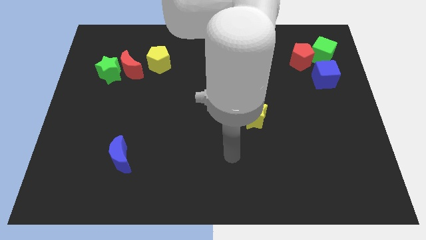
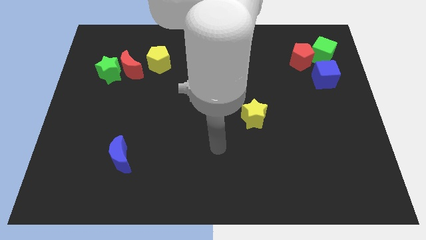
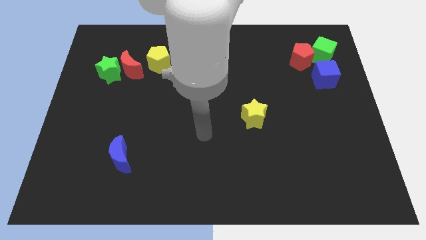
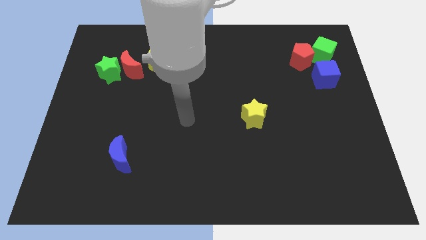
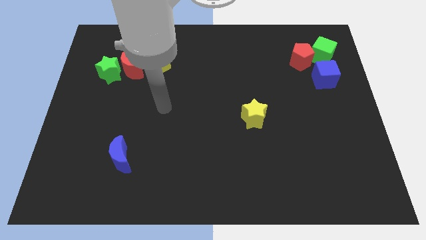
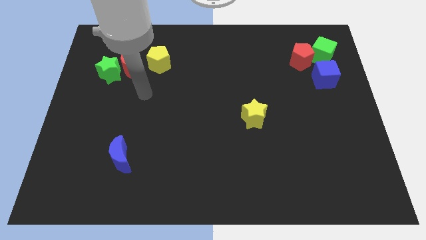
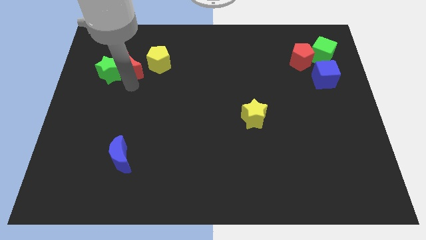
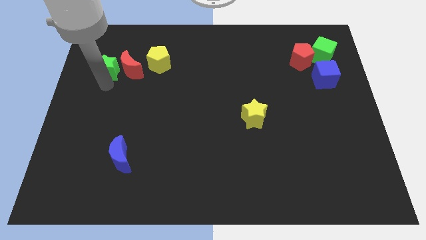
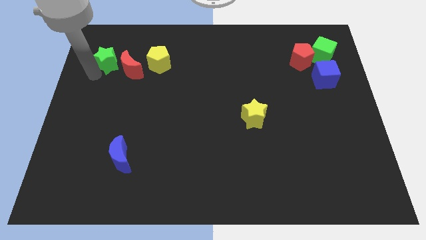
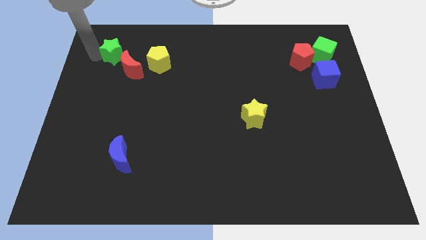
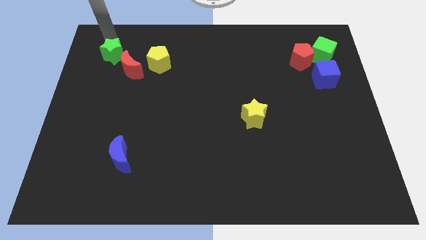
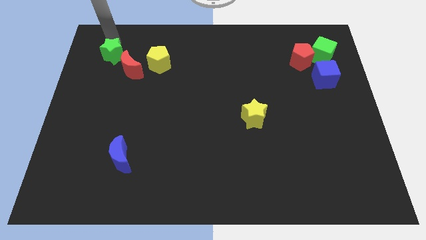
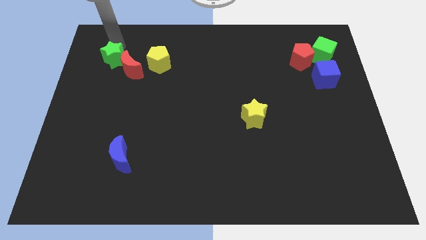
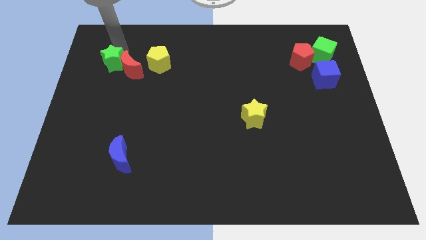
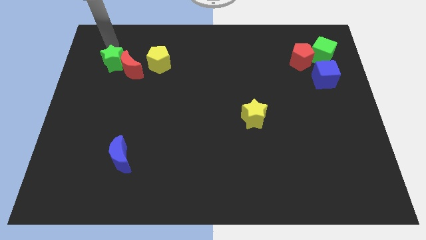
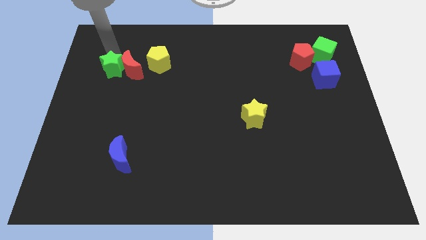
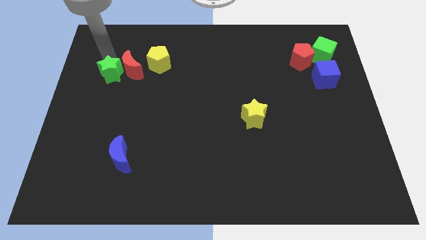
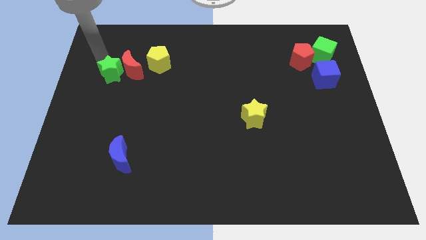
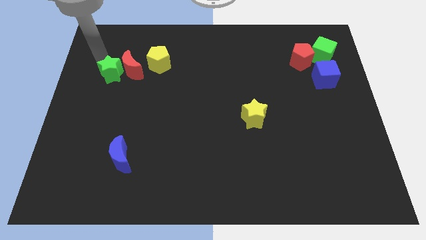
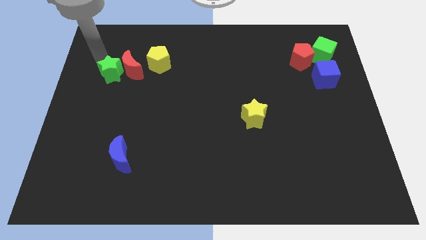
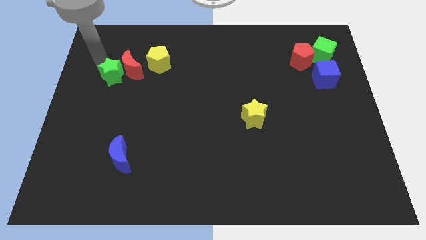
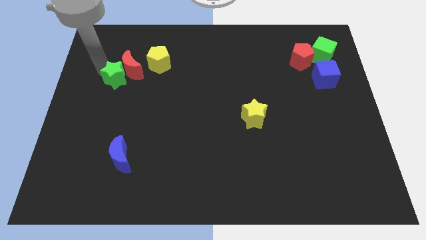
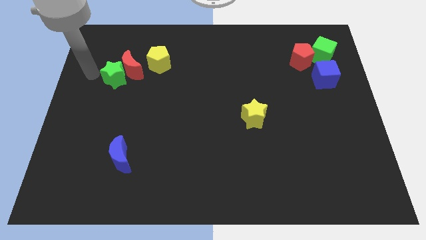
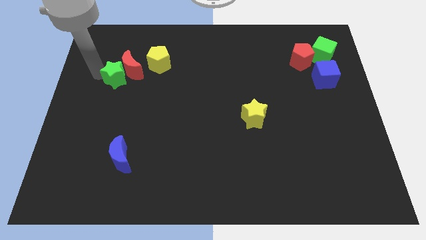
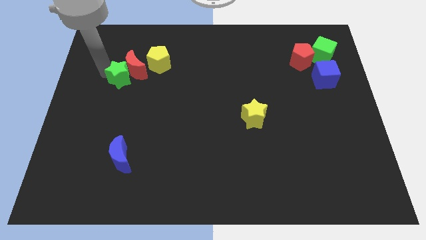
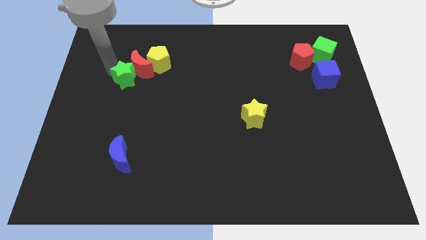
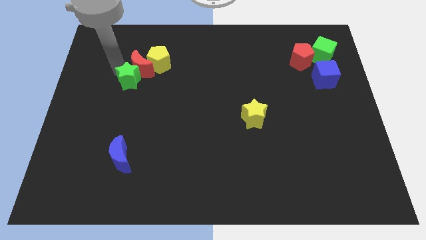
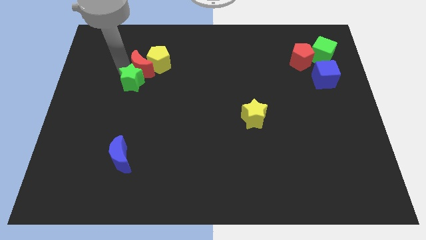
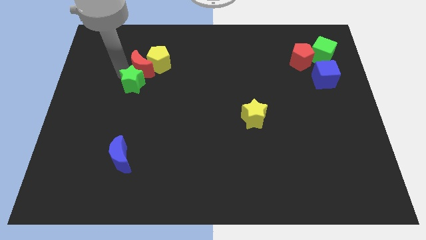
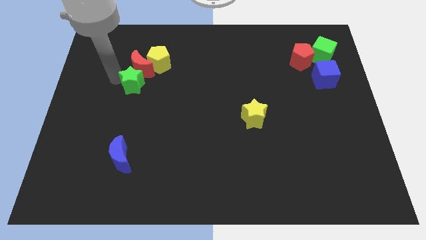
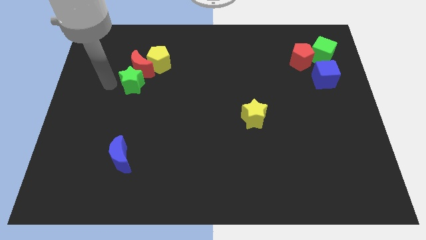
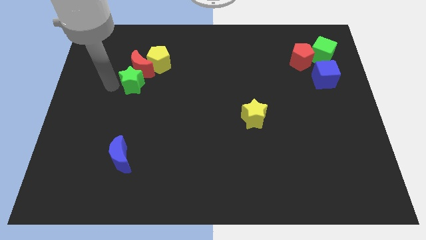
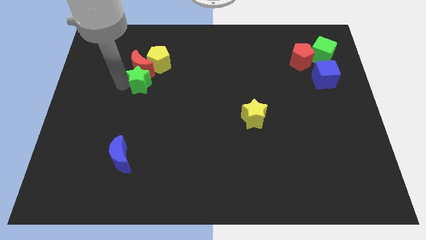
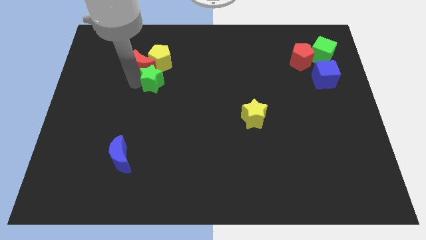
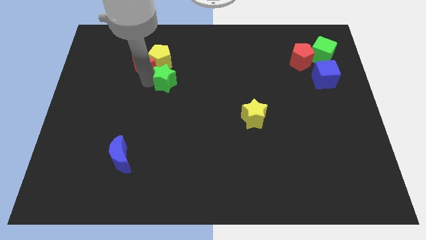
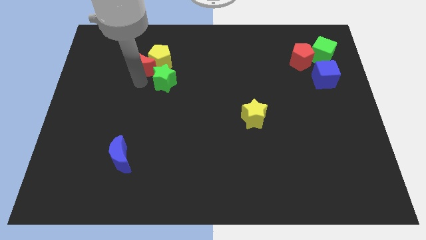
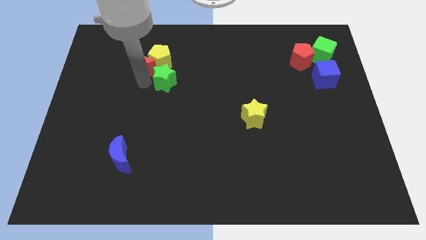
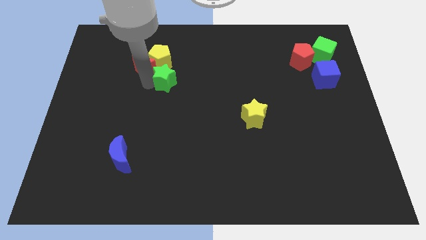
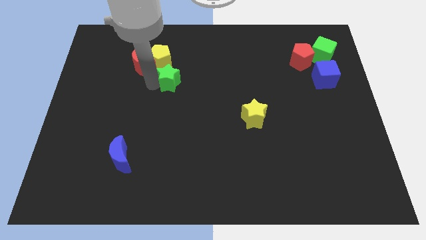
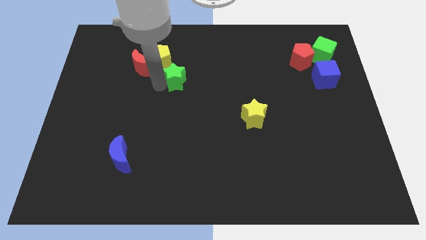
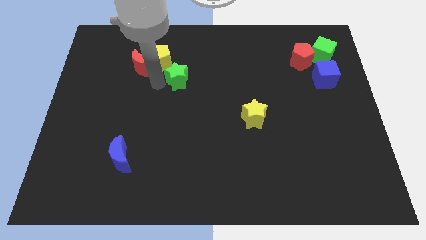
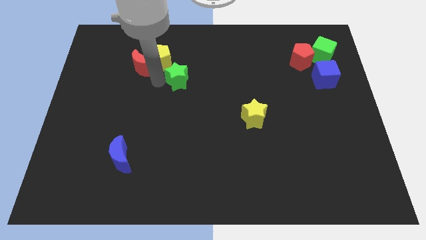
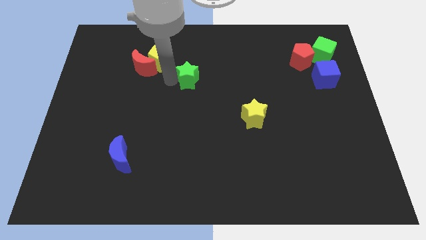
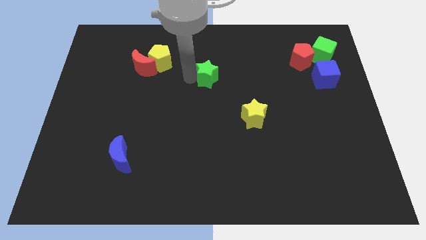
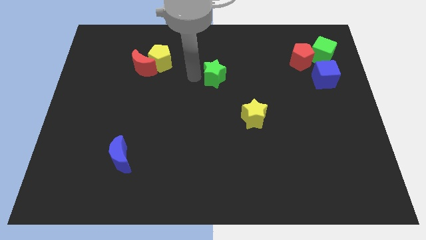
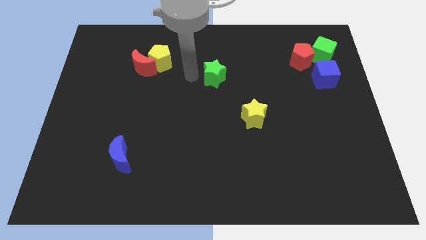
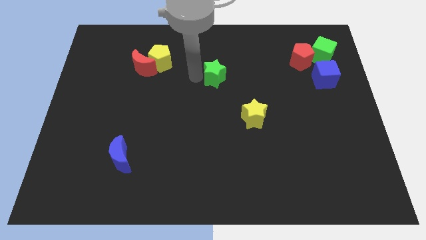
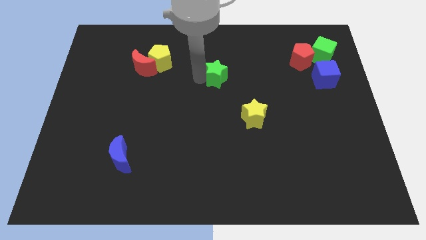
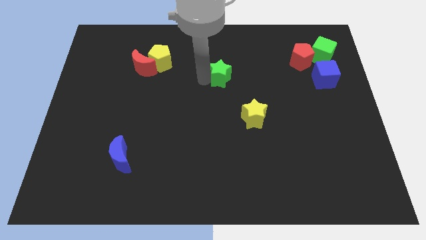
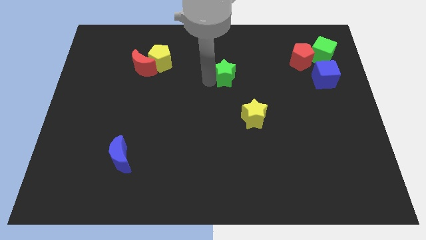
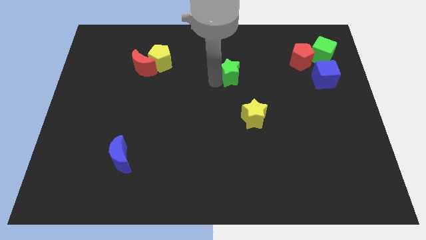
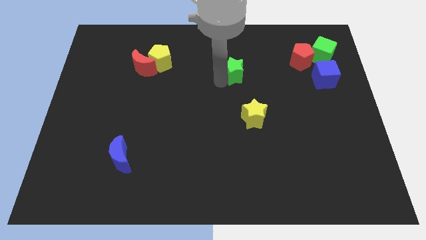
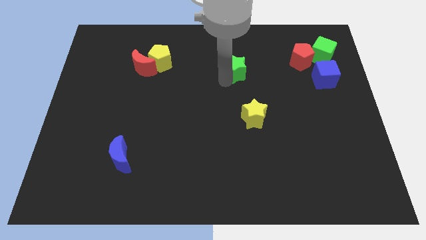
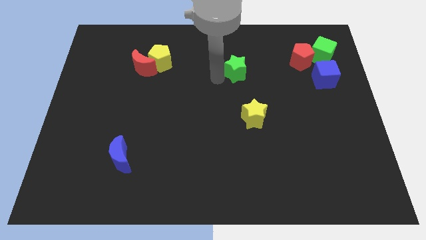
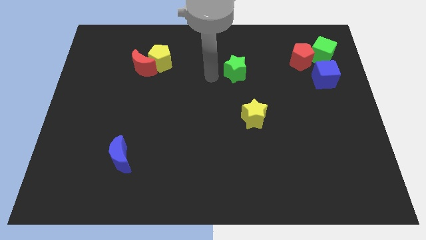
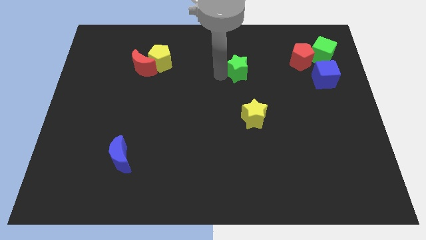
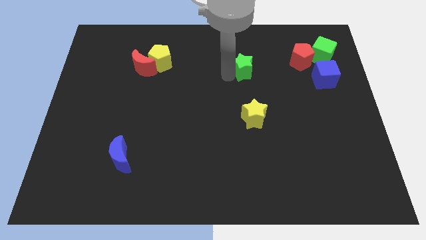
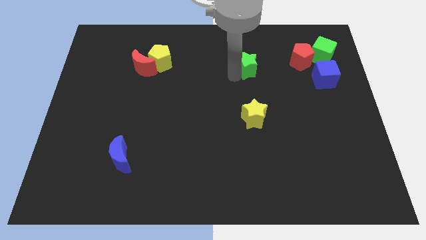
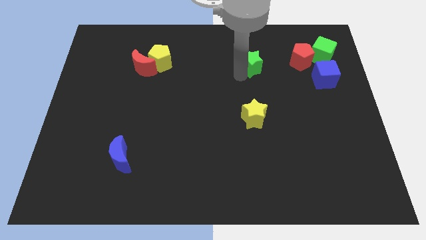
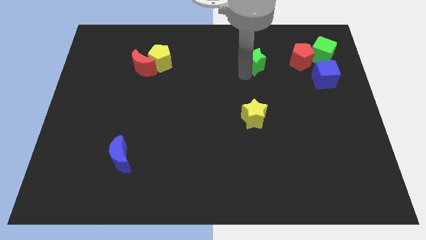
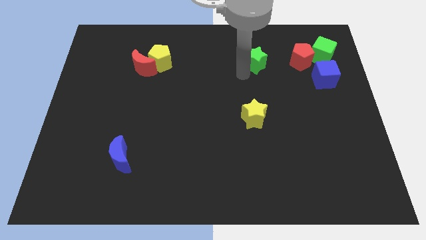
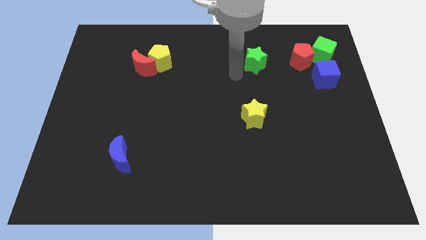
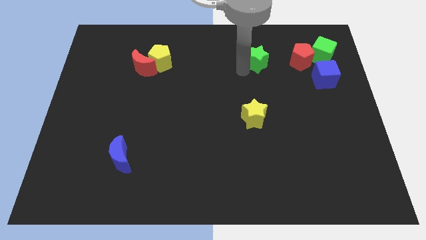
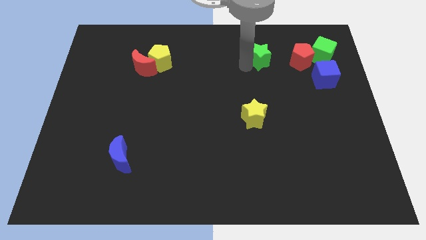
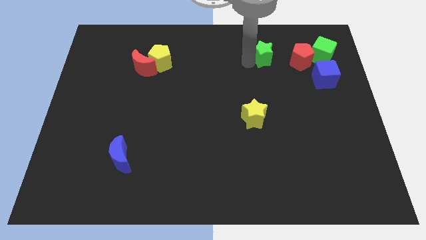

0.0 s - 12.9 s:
move the green star just left of the green cube

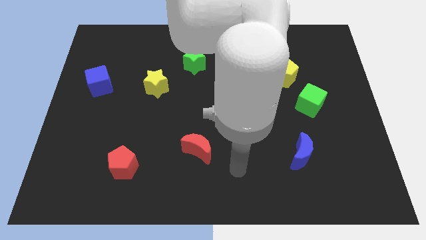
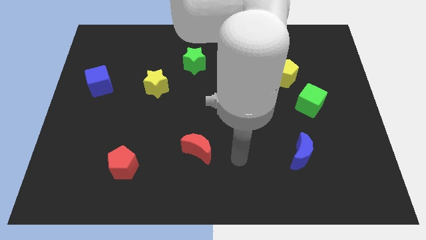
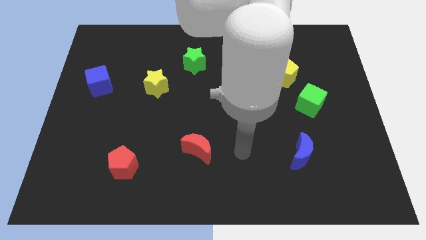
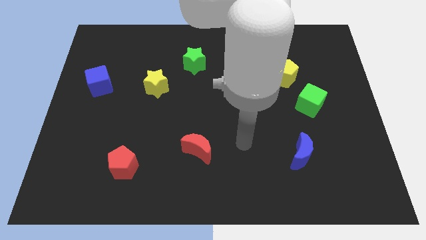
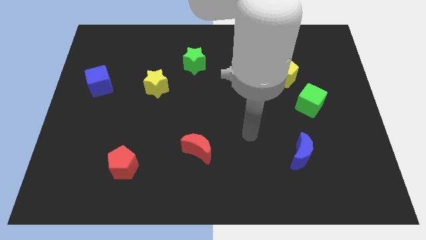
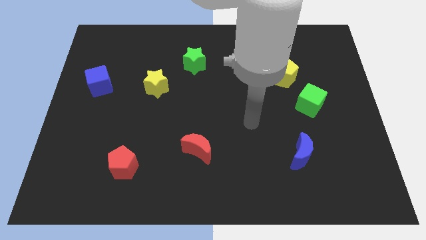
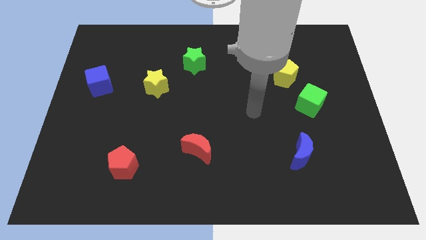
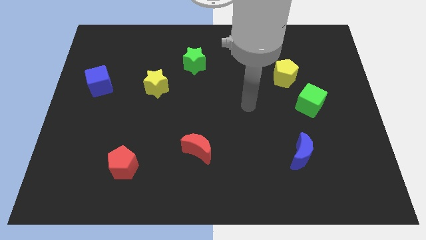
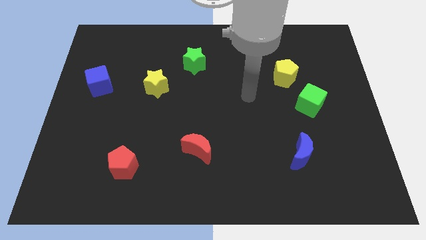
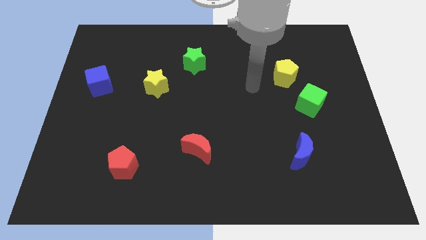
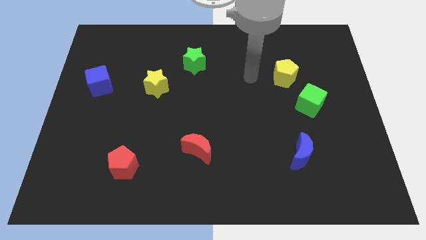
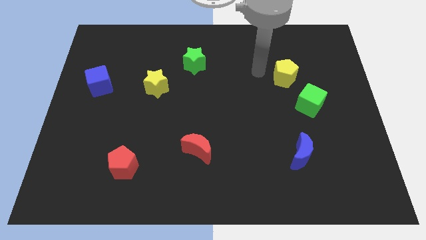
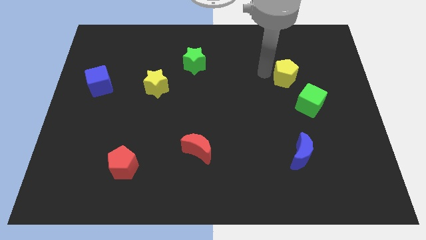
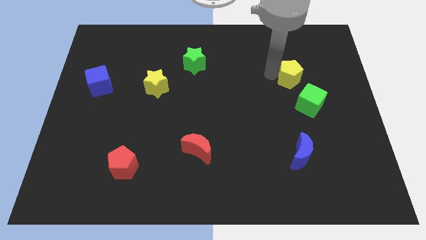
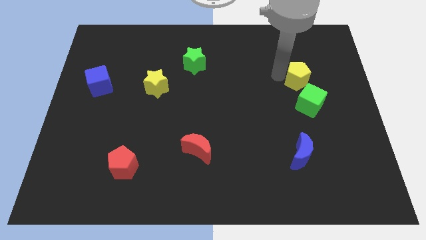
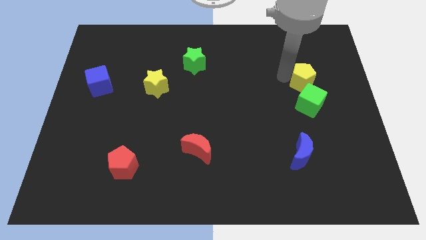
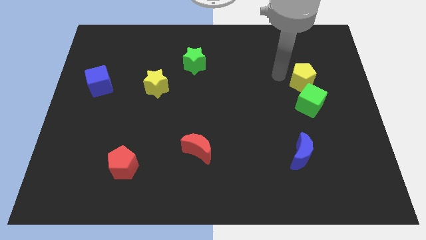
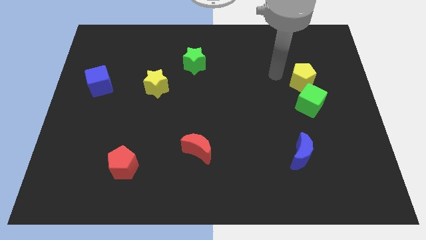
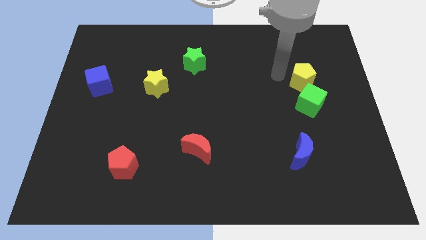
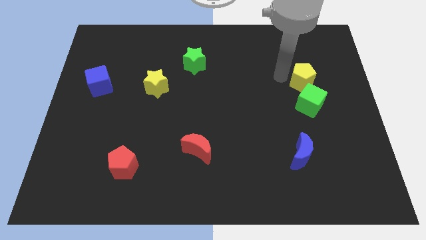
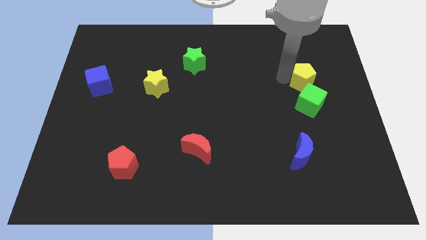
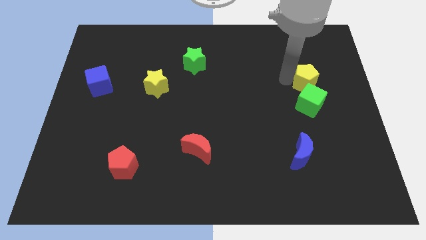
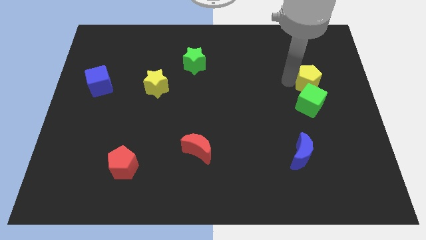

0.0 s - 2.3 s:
slide the yellow pentagon diagonally up and to the right of the green cube
